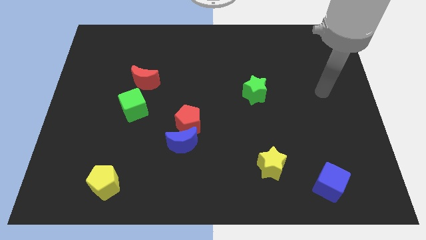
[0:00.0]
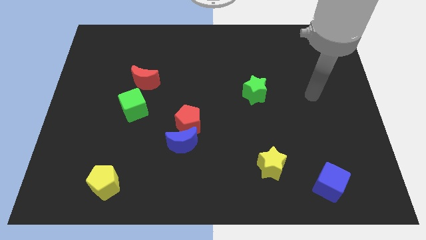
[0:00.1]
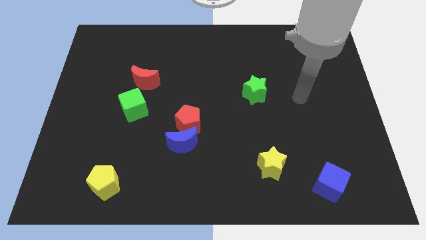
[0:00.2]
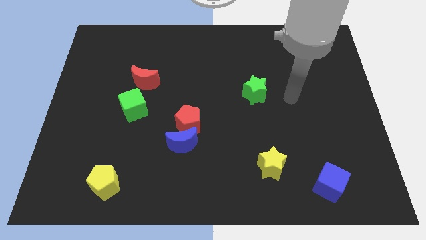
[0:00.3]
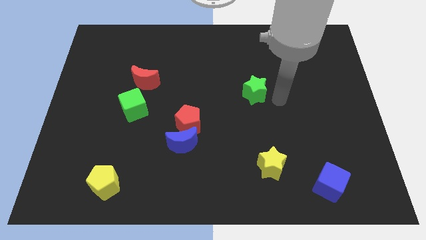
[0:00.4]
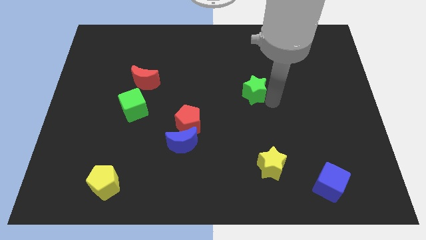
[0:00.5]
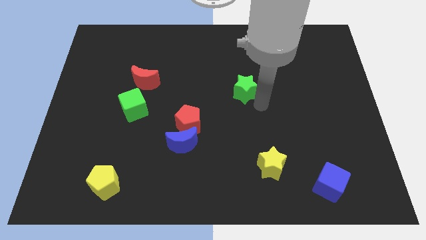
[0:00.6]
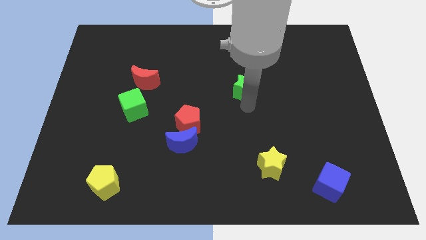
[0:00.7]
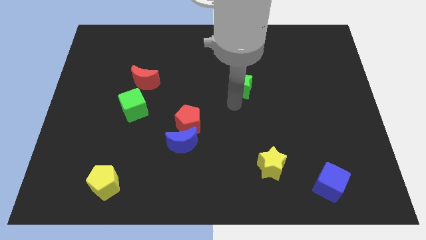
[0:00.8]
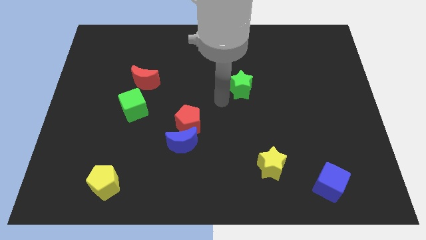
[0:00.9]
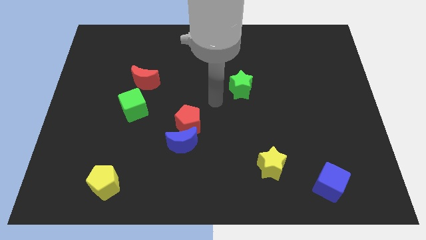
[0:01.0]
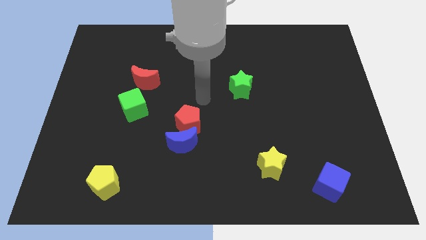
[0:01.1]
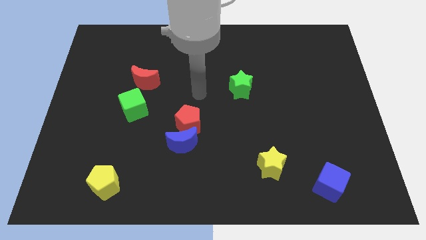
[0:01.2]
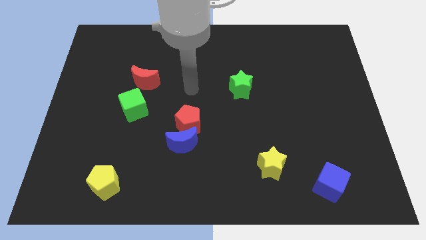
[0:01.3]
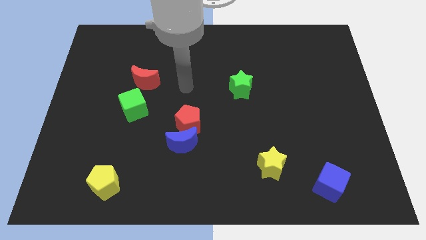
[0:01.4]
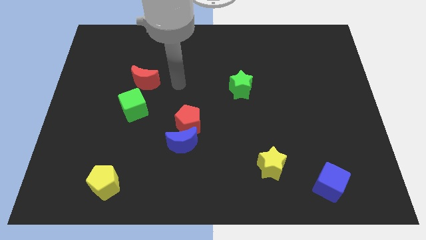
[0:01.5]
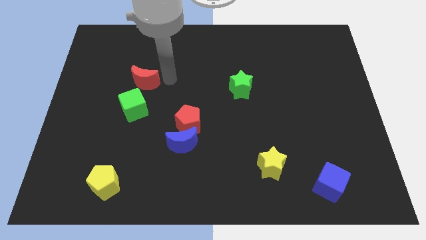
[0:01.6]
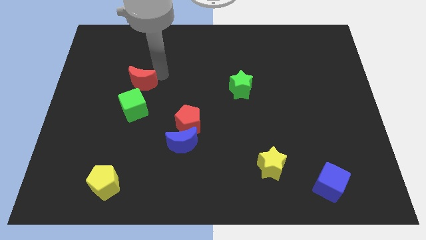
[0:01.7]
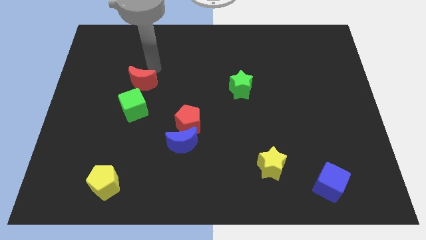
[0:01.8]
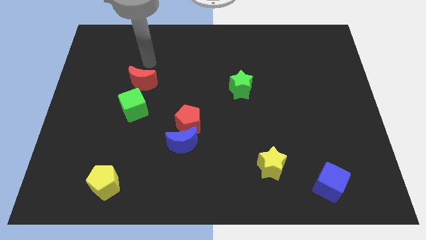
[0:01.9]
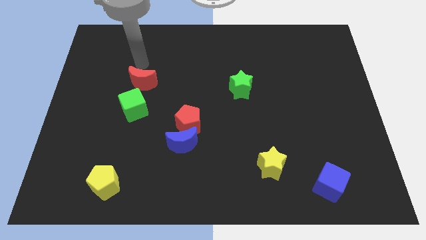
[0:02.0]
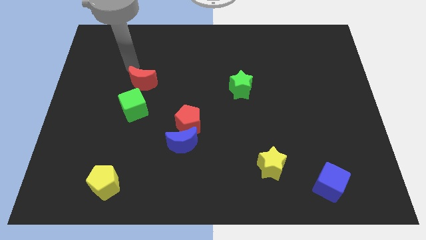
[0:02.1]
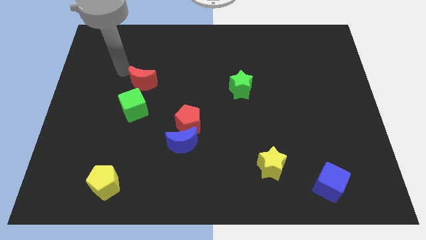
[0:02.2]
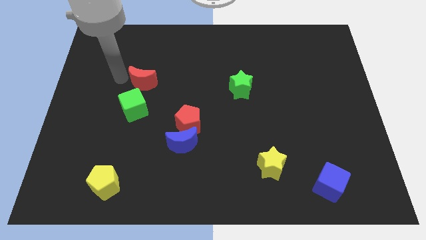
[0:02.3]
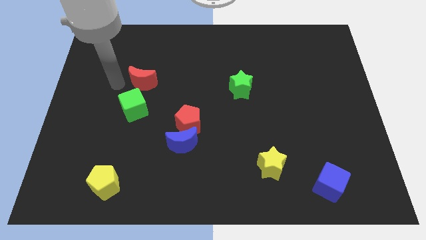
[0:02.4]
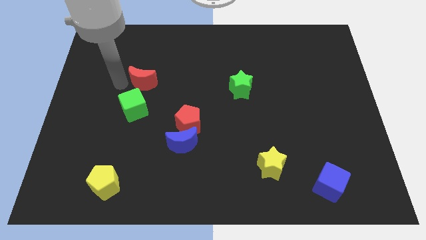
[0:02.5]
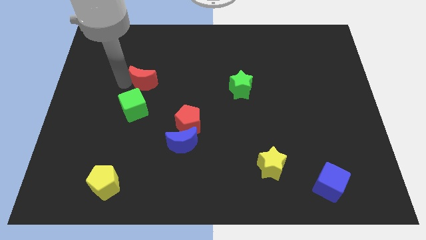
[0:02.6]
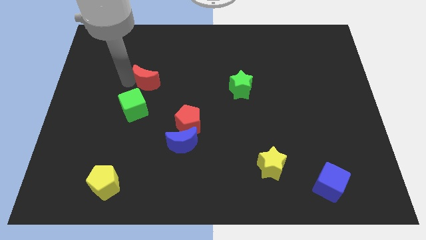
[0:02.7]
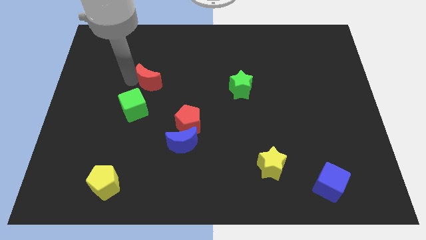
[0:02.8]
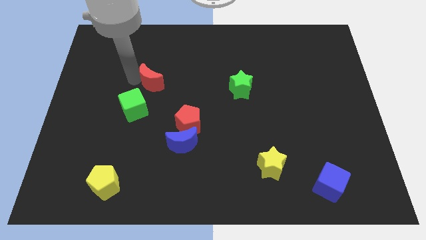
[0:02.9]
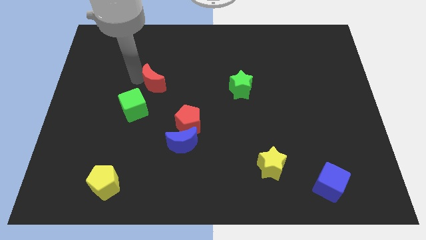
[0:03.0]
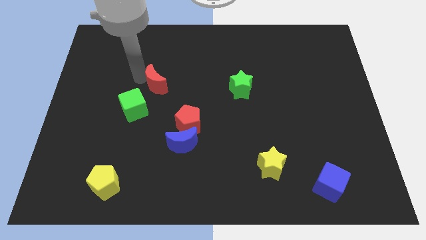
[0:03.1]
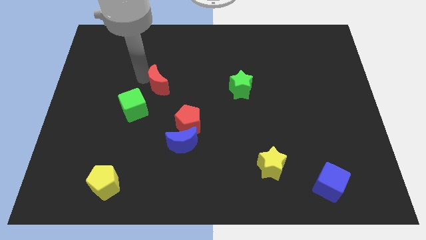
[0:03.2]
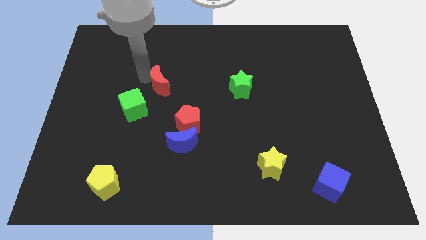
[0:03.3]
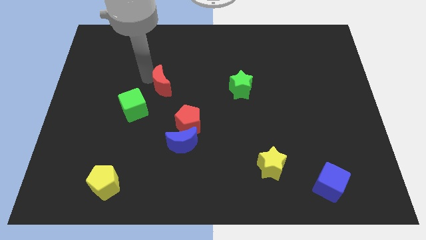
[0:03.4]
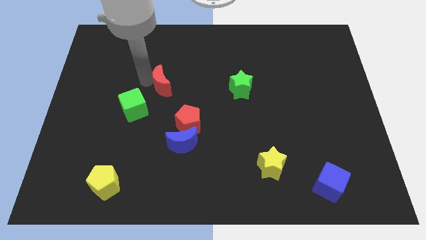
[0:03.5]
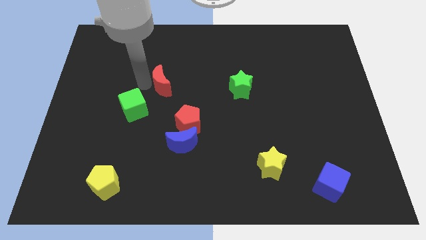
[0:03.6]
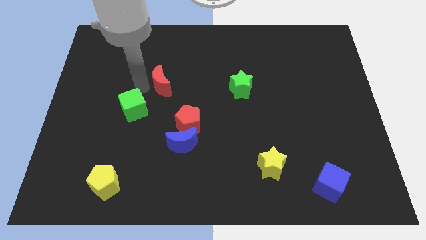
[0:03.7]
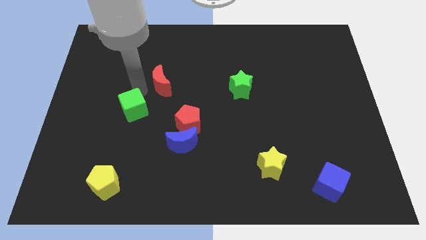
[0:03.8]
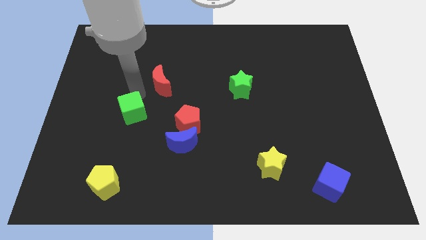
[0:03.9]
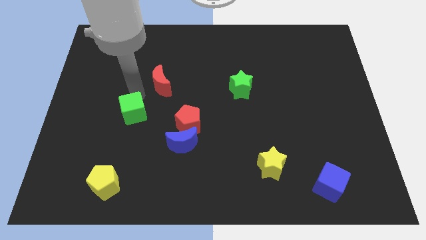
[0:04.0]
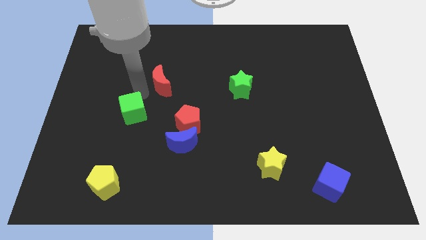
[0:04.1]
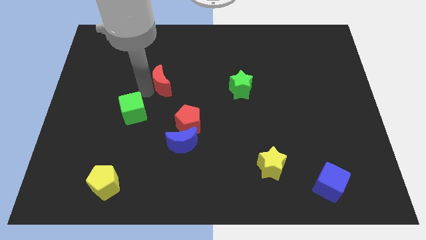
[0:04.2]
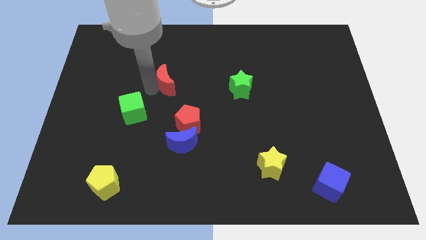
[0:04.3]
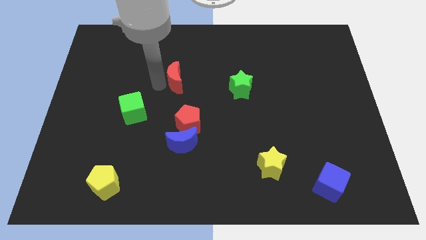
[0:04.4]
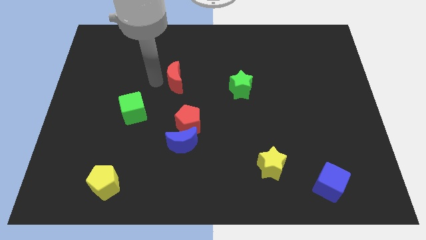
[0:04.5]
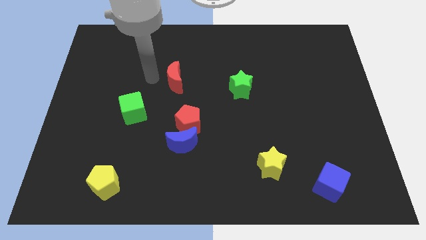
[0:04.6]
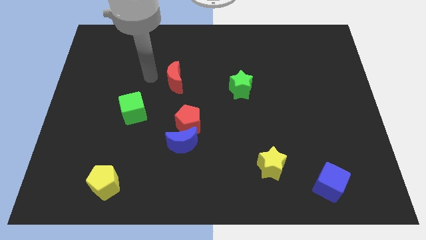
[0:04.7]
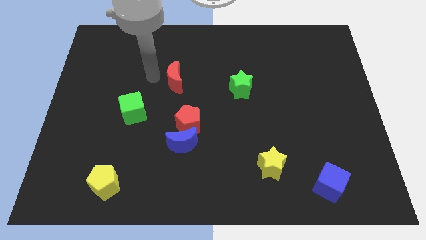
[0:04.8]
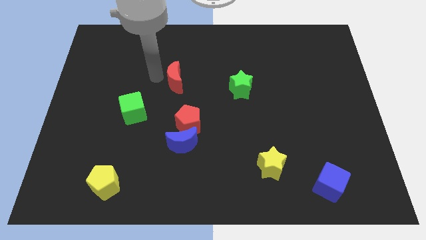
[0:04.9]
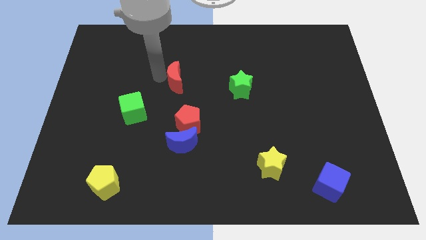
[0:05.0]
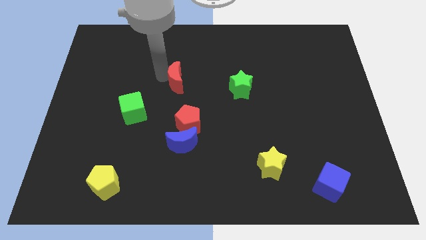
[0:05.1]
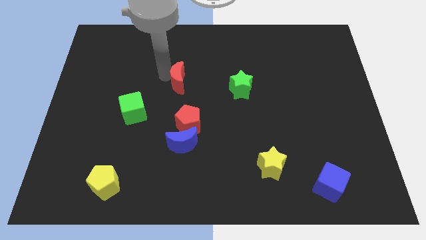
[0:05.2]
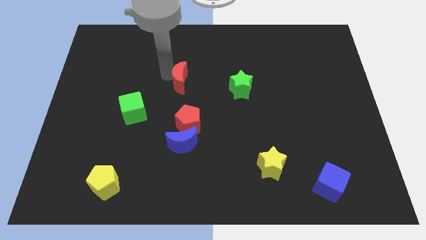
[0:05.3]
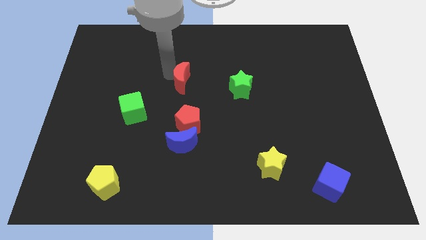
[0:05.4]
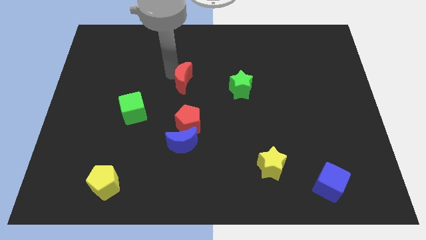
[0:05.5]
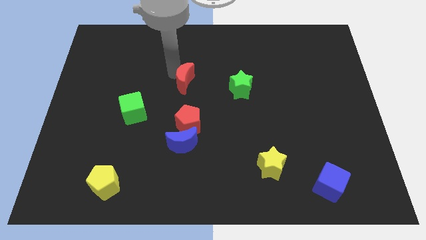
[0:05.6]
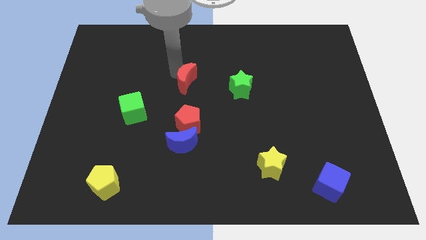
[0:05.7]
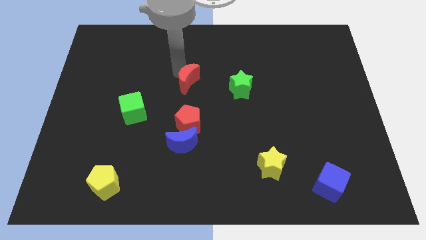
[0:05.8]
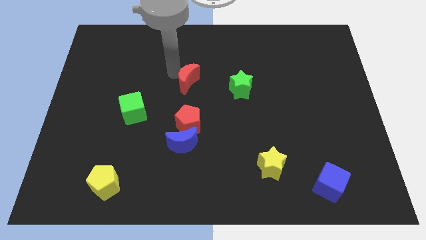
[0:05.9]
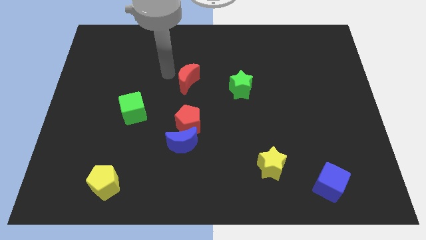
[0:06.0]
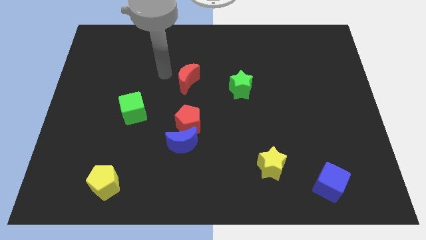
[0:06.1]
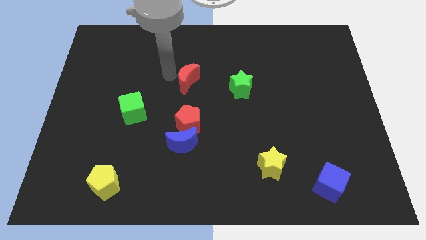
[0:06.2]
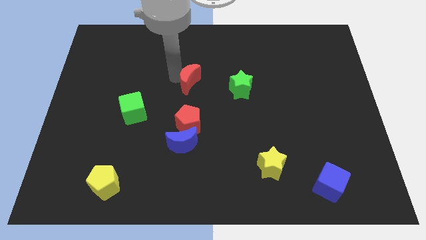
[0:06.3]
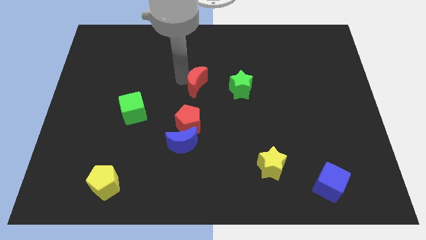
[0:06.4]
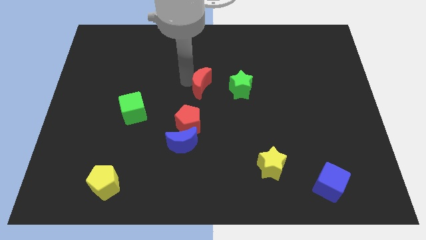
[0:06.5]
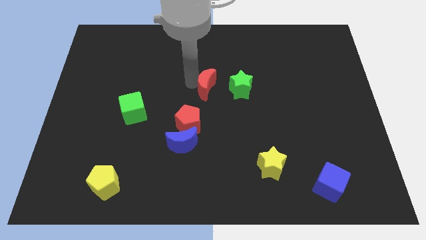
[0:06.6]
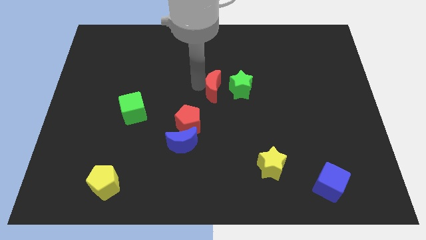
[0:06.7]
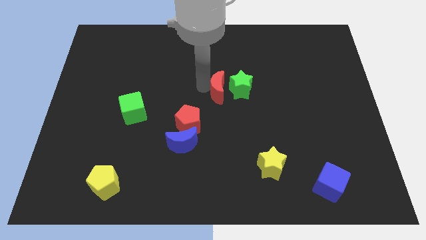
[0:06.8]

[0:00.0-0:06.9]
slide the red moon to the green star
